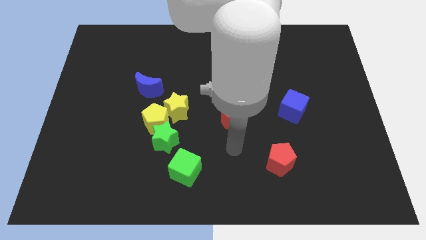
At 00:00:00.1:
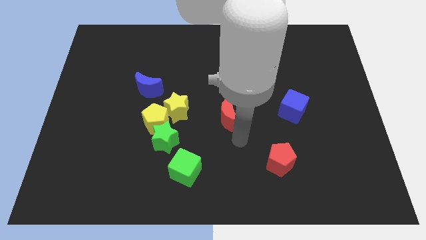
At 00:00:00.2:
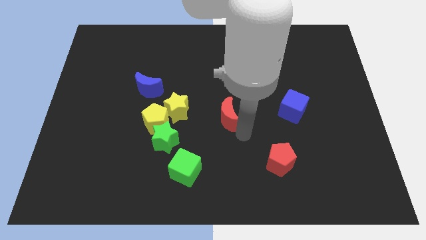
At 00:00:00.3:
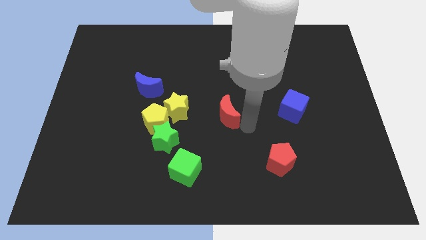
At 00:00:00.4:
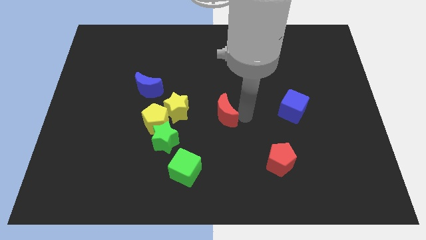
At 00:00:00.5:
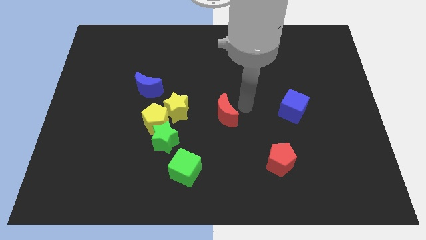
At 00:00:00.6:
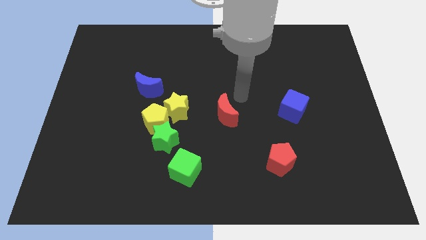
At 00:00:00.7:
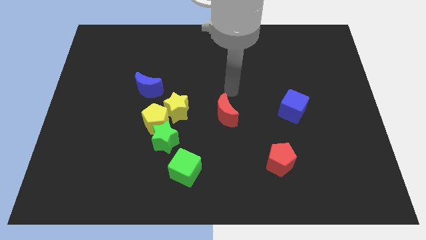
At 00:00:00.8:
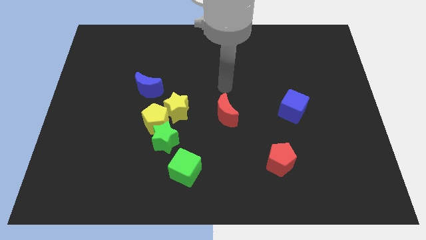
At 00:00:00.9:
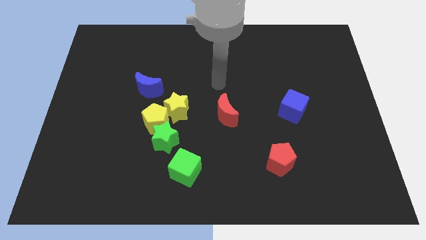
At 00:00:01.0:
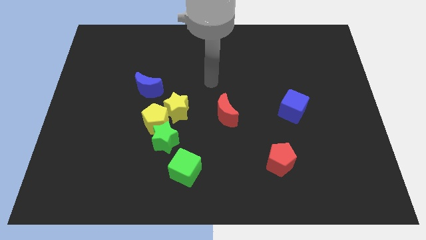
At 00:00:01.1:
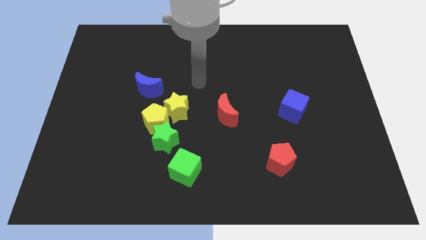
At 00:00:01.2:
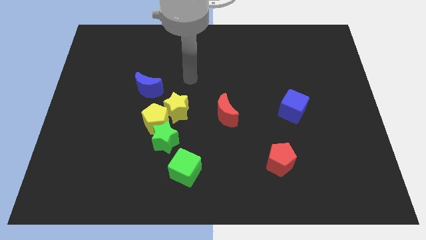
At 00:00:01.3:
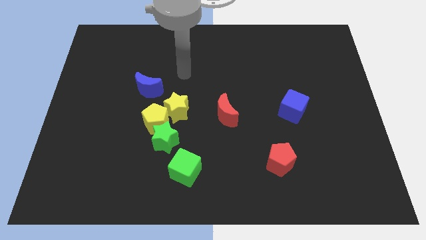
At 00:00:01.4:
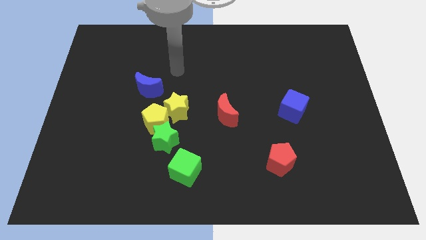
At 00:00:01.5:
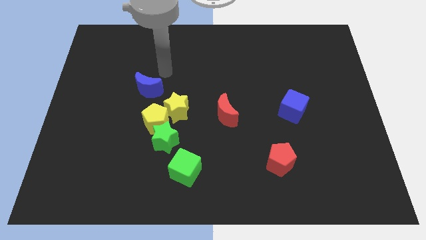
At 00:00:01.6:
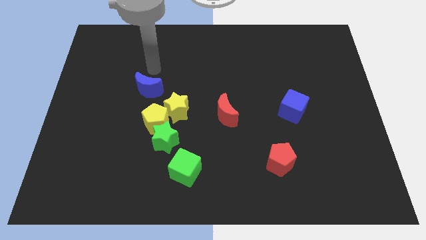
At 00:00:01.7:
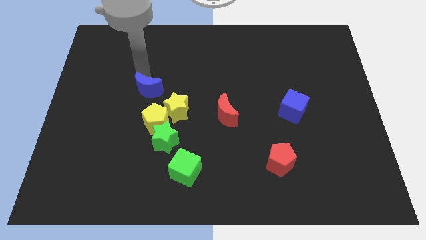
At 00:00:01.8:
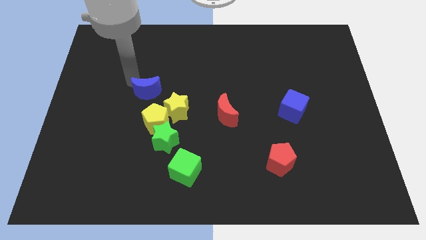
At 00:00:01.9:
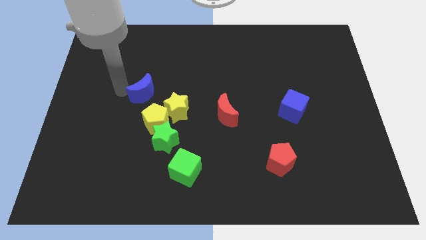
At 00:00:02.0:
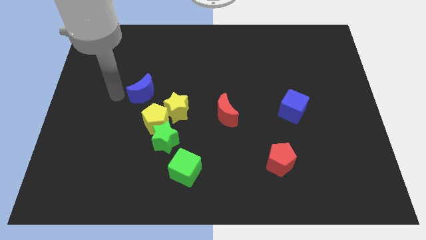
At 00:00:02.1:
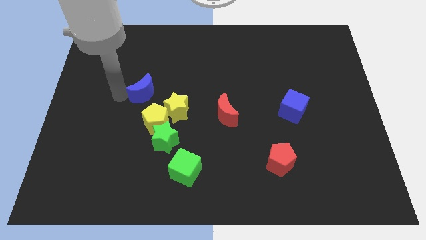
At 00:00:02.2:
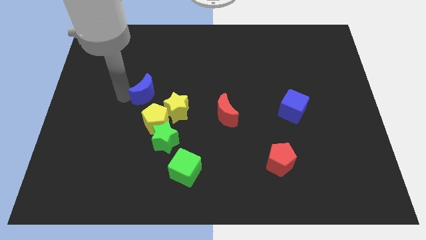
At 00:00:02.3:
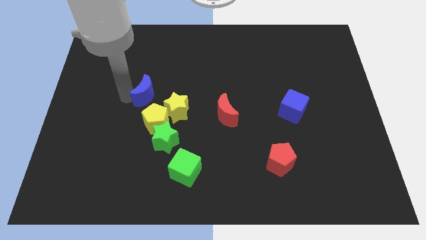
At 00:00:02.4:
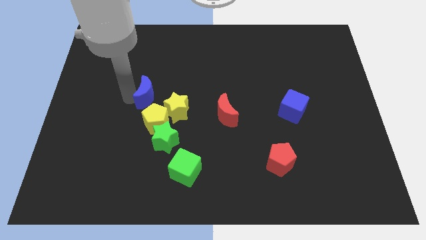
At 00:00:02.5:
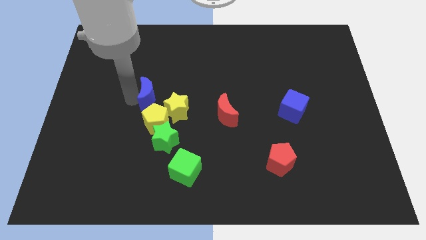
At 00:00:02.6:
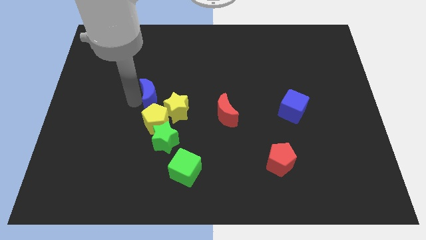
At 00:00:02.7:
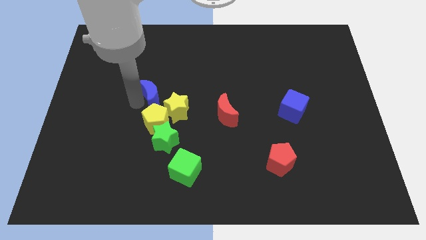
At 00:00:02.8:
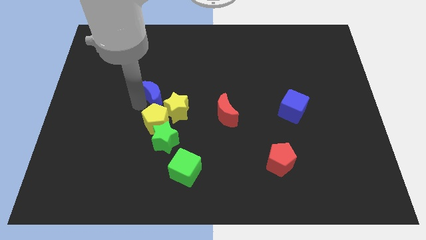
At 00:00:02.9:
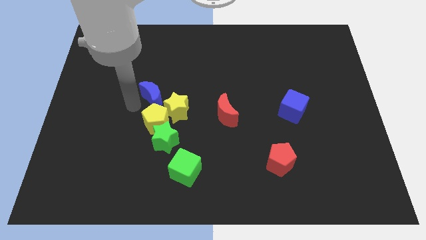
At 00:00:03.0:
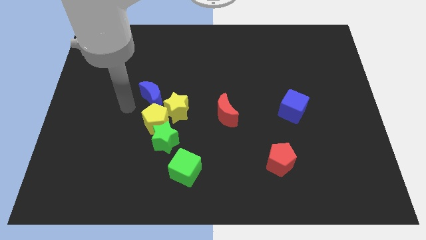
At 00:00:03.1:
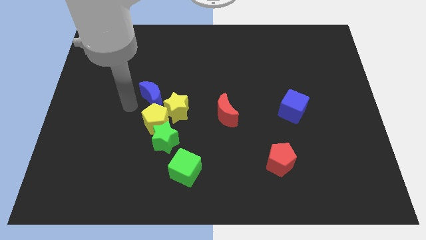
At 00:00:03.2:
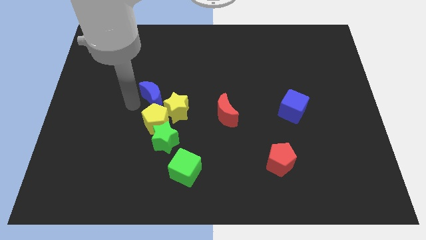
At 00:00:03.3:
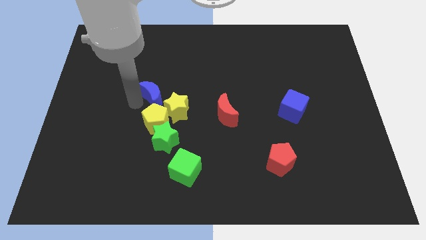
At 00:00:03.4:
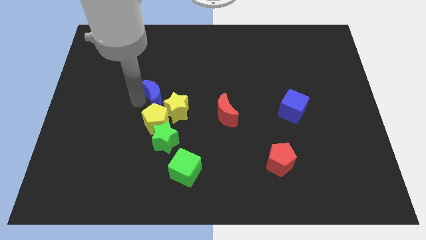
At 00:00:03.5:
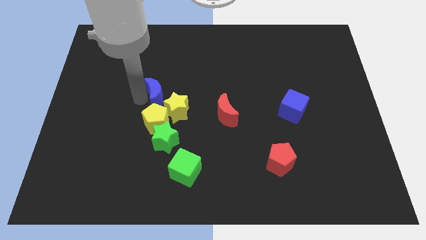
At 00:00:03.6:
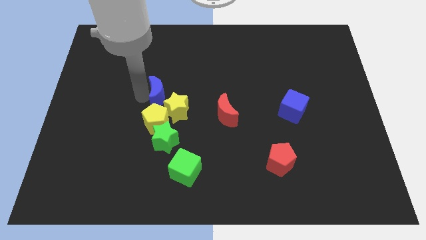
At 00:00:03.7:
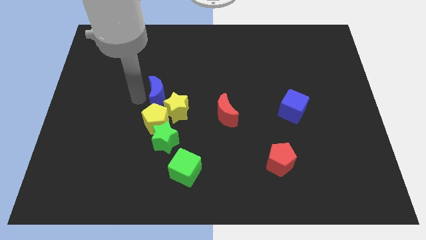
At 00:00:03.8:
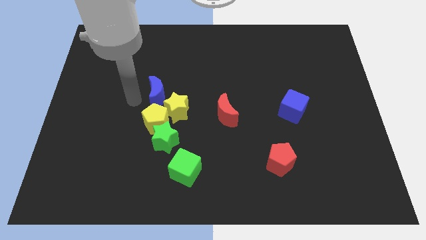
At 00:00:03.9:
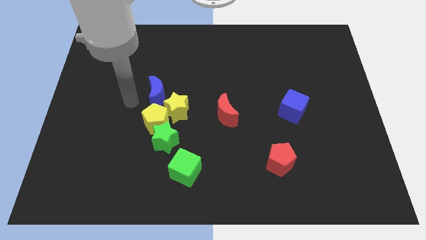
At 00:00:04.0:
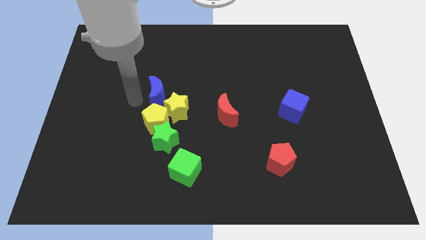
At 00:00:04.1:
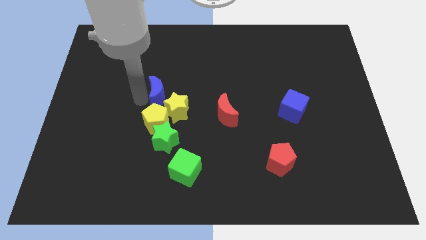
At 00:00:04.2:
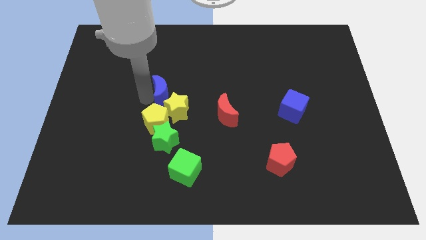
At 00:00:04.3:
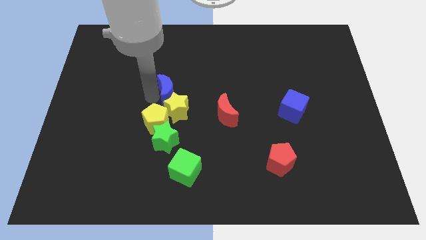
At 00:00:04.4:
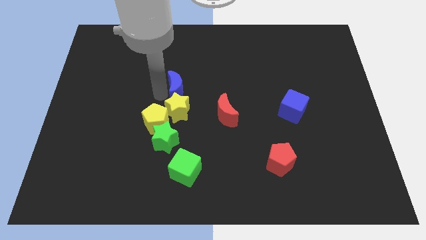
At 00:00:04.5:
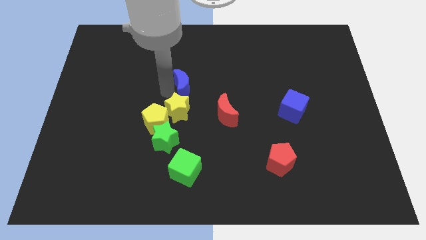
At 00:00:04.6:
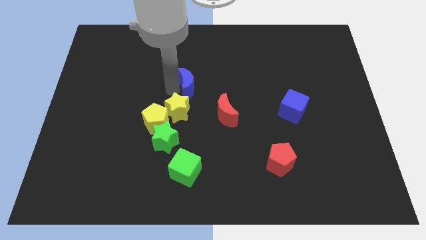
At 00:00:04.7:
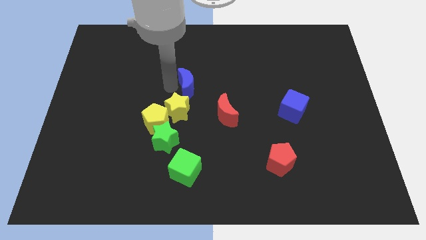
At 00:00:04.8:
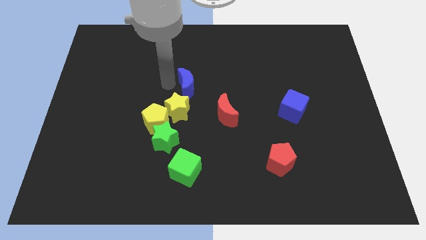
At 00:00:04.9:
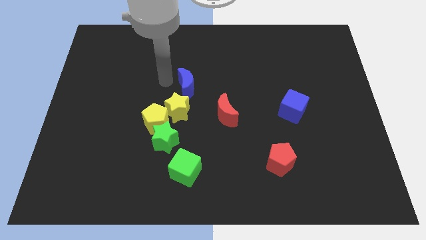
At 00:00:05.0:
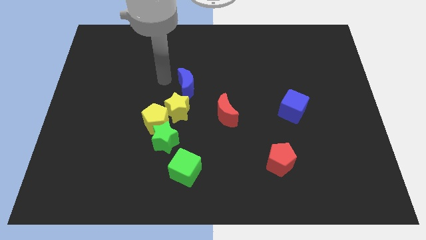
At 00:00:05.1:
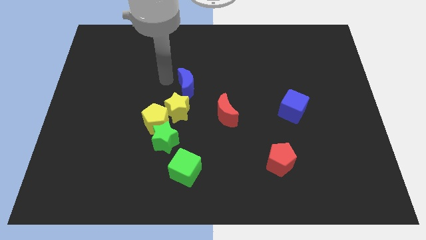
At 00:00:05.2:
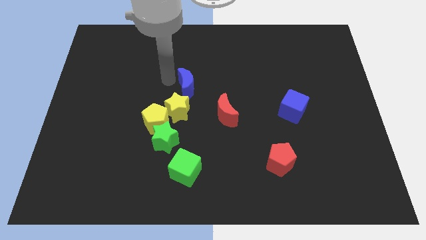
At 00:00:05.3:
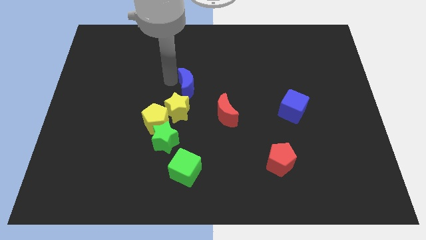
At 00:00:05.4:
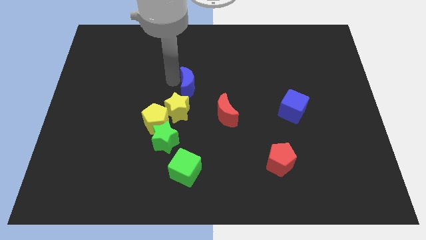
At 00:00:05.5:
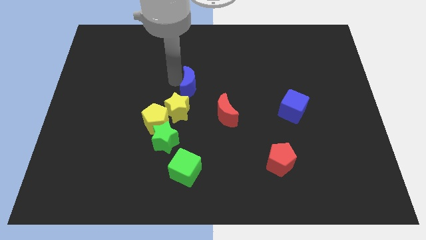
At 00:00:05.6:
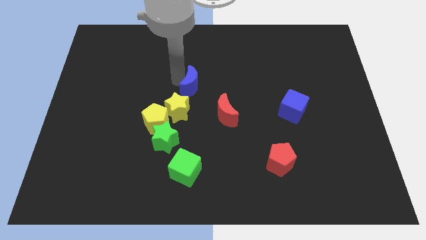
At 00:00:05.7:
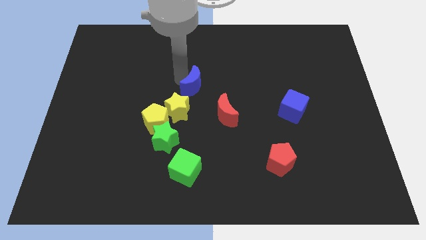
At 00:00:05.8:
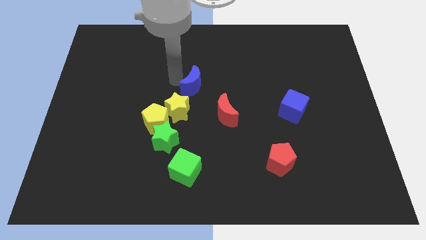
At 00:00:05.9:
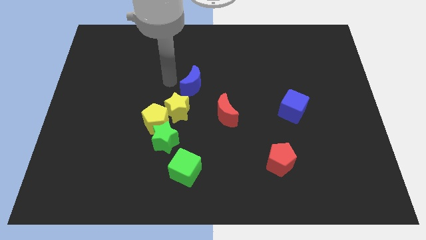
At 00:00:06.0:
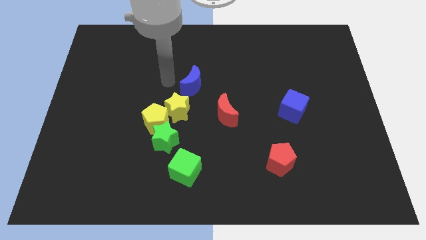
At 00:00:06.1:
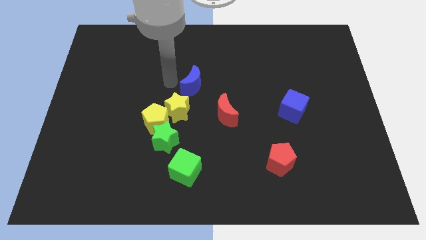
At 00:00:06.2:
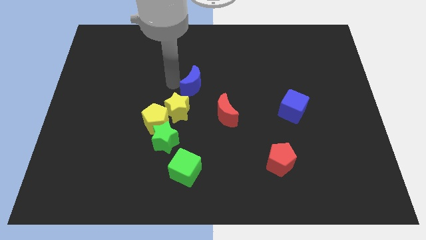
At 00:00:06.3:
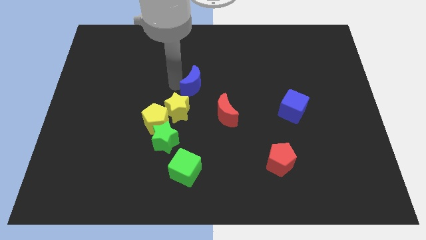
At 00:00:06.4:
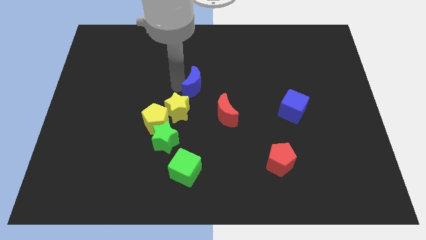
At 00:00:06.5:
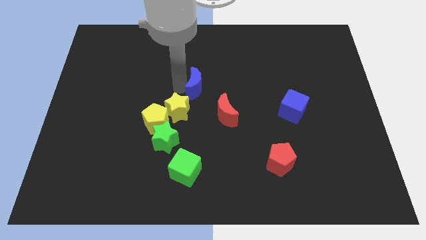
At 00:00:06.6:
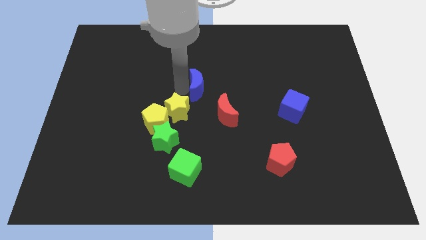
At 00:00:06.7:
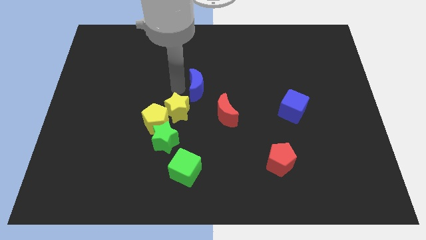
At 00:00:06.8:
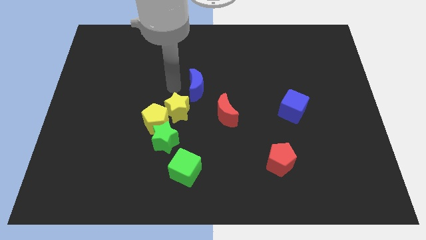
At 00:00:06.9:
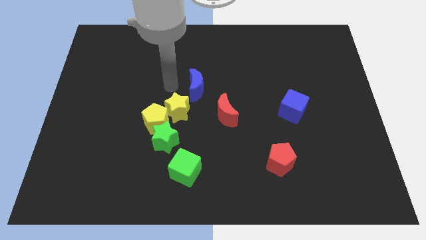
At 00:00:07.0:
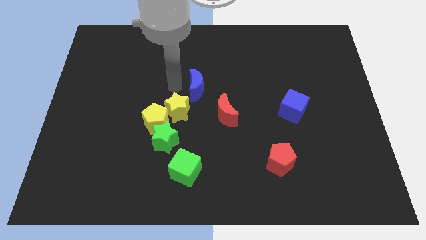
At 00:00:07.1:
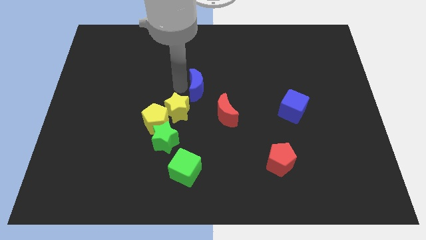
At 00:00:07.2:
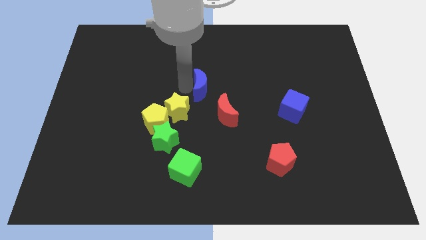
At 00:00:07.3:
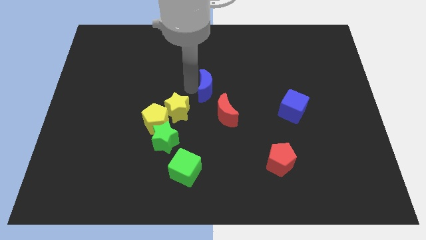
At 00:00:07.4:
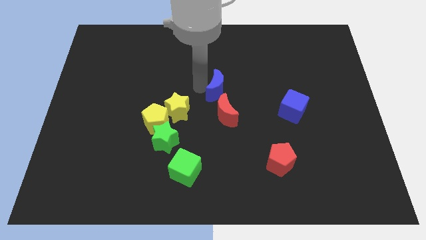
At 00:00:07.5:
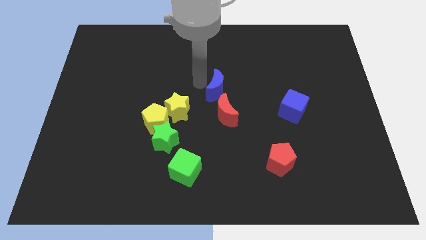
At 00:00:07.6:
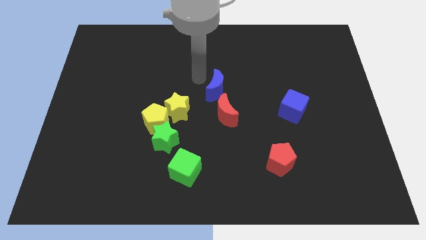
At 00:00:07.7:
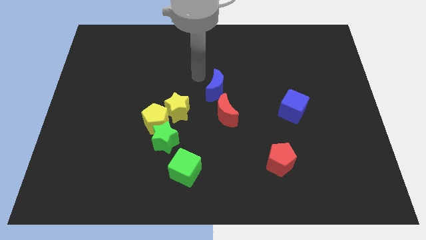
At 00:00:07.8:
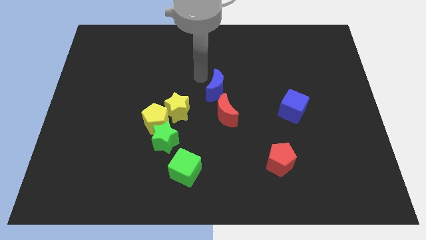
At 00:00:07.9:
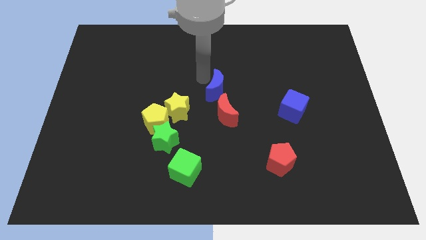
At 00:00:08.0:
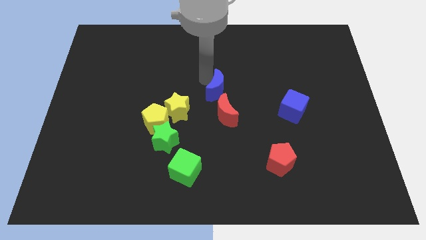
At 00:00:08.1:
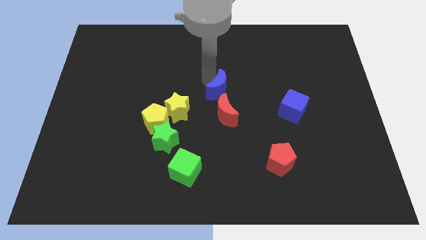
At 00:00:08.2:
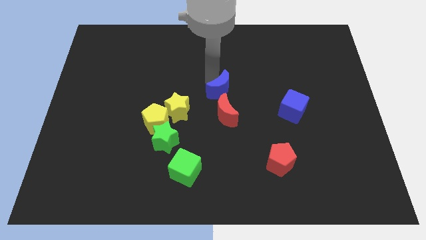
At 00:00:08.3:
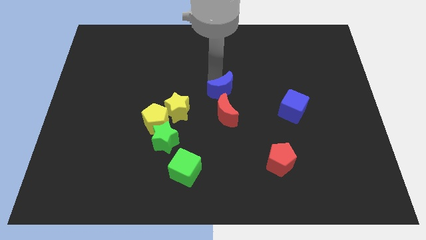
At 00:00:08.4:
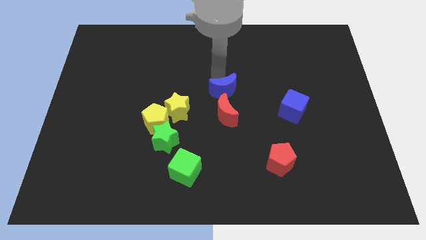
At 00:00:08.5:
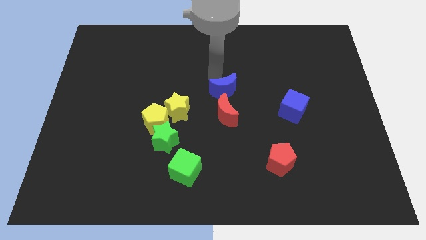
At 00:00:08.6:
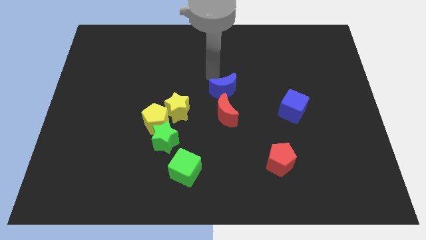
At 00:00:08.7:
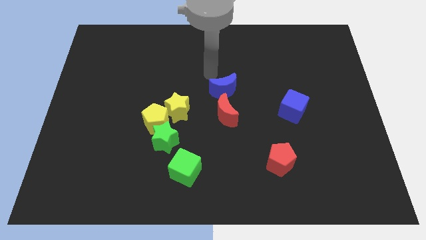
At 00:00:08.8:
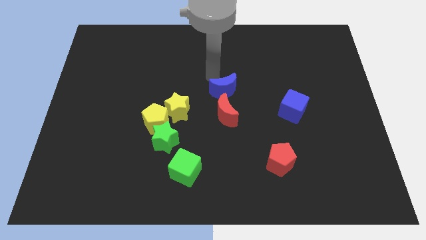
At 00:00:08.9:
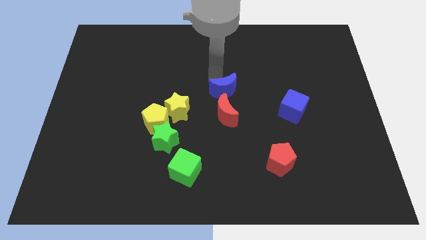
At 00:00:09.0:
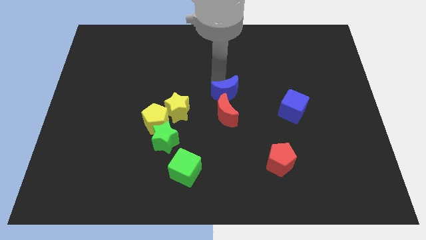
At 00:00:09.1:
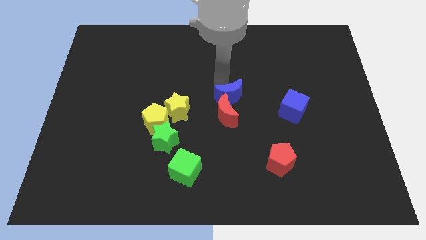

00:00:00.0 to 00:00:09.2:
move the blue moon right of the yellow star
